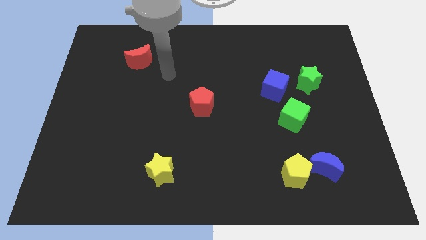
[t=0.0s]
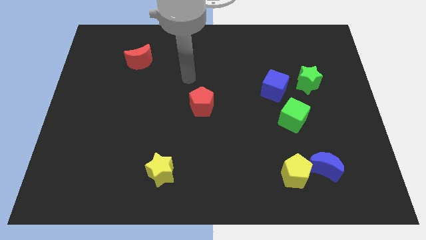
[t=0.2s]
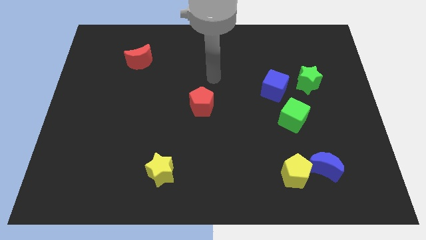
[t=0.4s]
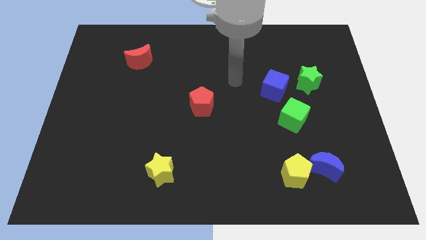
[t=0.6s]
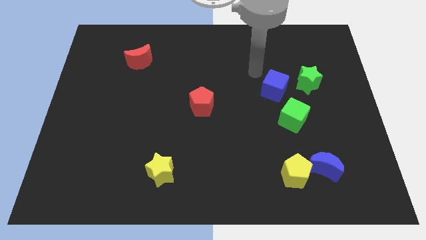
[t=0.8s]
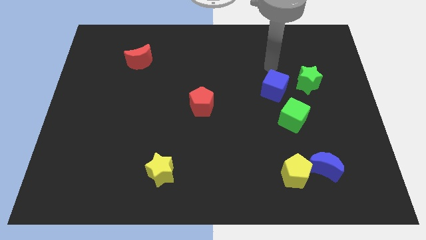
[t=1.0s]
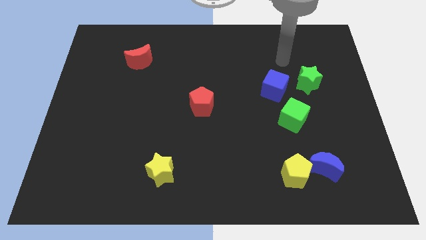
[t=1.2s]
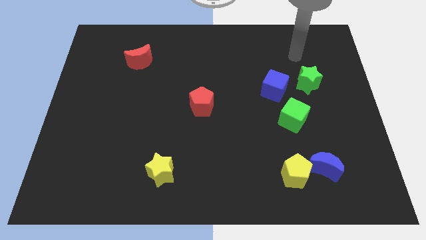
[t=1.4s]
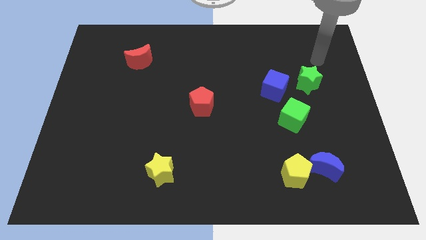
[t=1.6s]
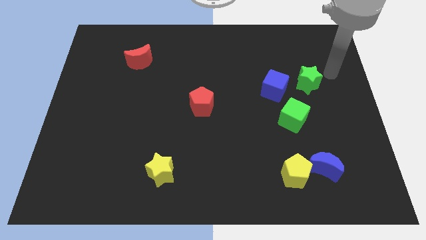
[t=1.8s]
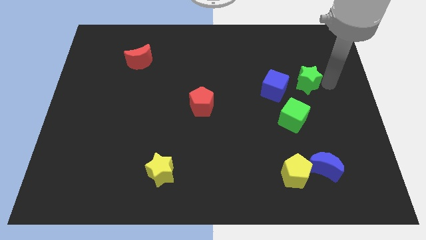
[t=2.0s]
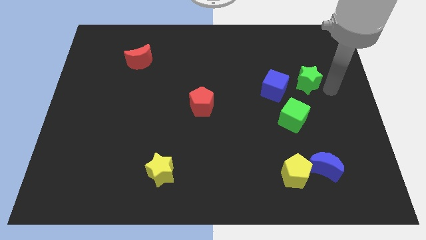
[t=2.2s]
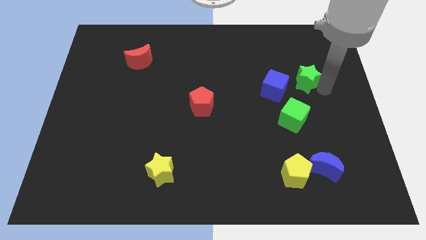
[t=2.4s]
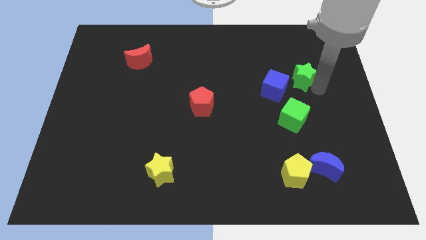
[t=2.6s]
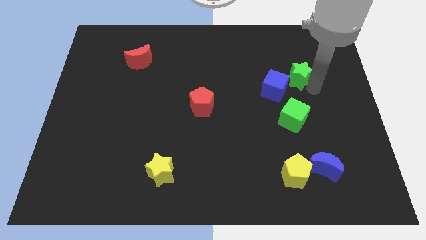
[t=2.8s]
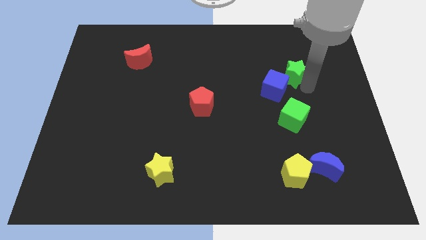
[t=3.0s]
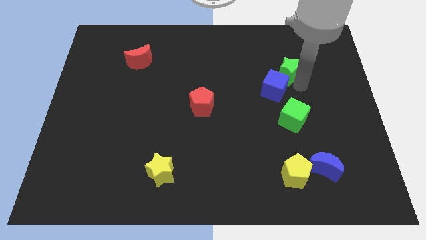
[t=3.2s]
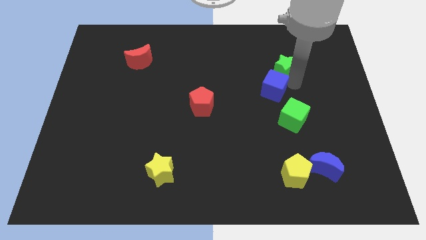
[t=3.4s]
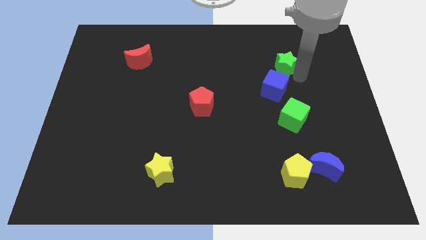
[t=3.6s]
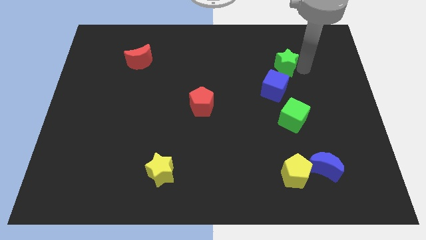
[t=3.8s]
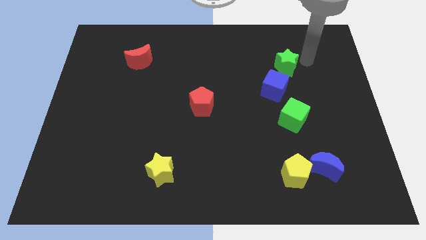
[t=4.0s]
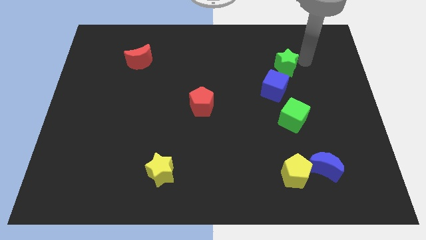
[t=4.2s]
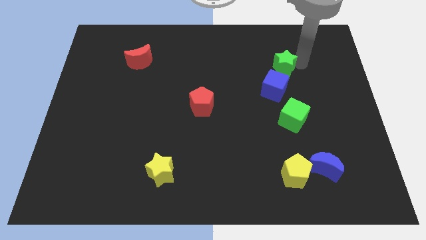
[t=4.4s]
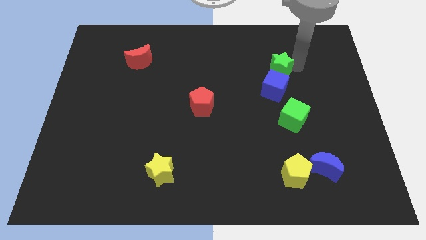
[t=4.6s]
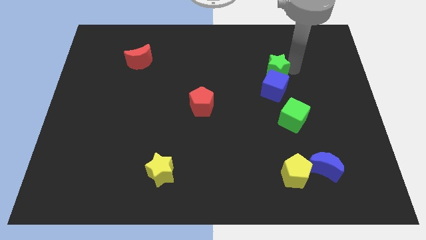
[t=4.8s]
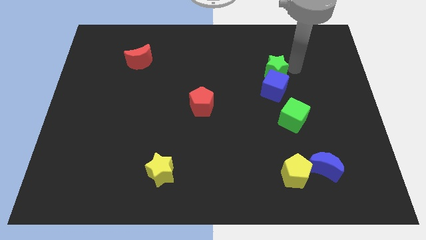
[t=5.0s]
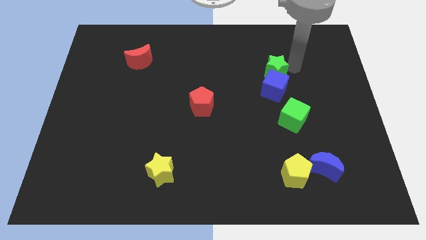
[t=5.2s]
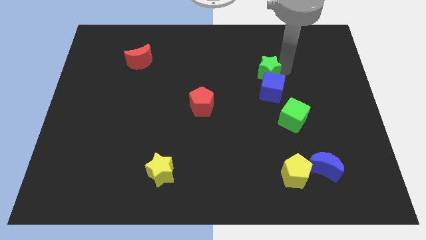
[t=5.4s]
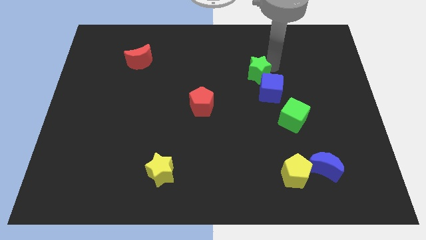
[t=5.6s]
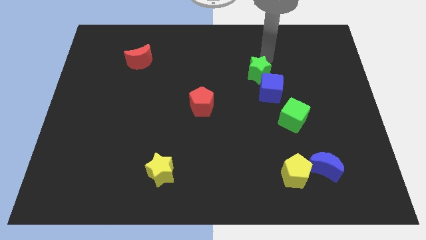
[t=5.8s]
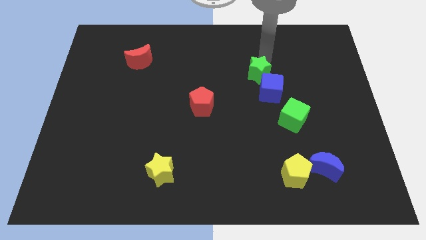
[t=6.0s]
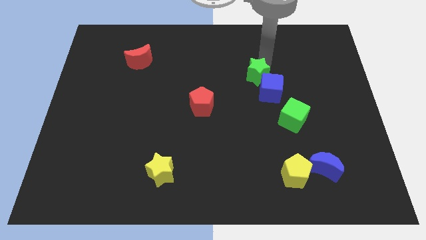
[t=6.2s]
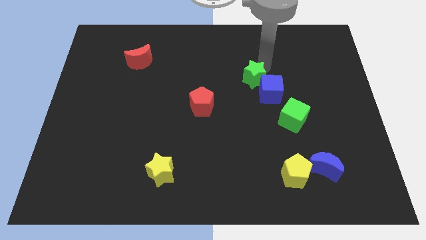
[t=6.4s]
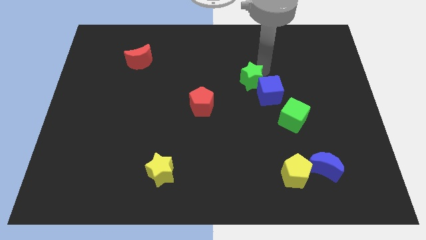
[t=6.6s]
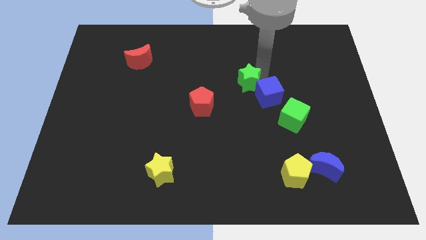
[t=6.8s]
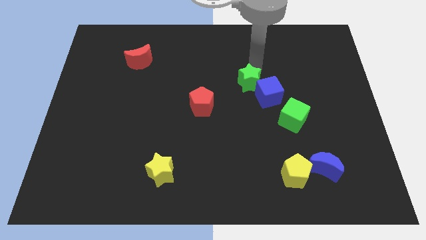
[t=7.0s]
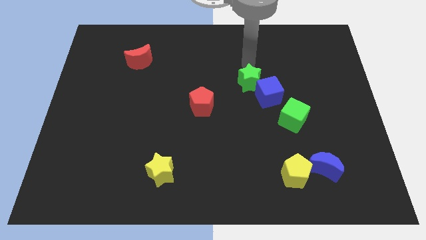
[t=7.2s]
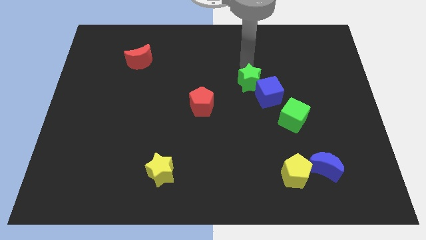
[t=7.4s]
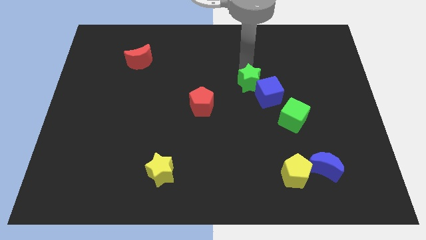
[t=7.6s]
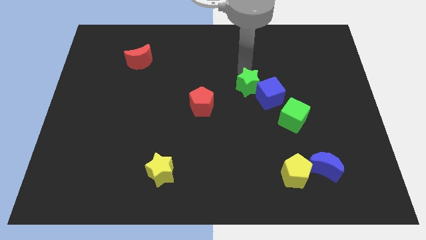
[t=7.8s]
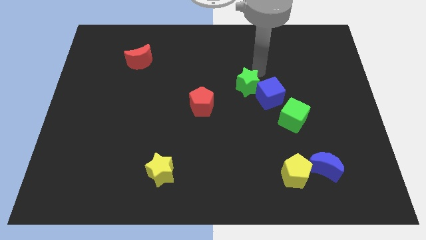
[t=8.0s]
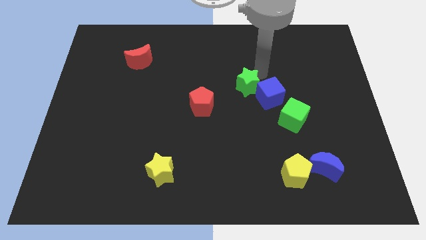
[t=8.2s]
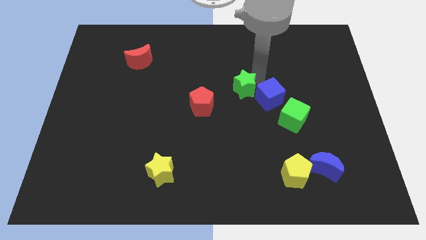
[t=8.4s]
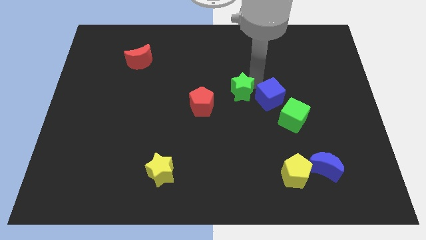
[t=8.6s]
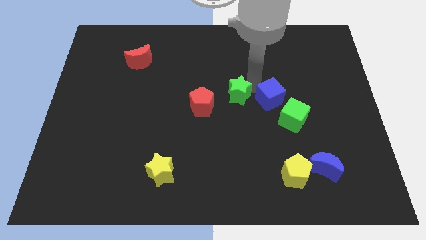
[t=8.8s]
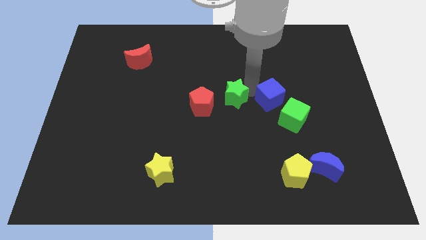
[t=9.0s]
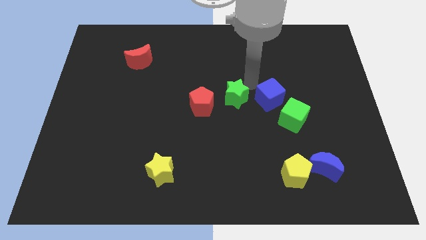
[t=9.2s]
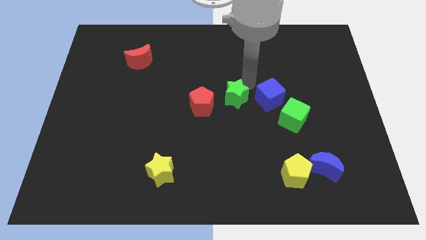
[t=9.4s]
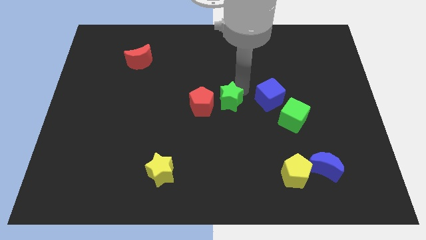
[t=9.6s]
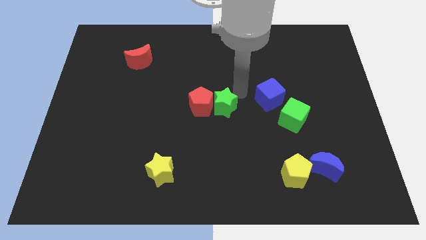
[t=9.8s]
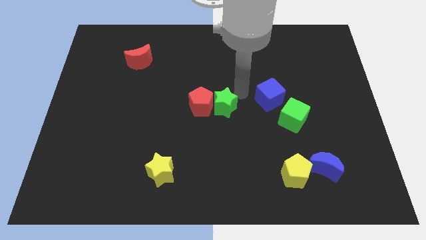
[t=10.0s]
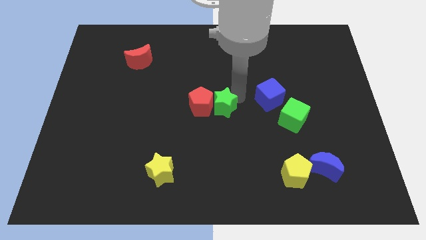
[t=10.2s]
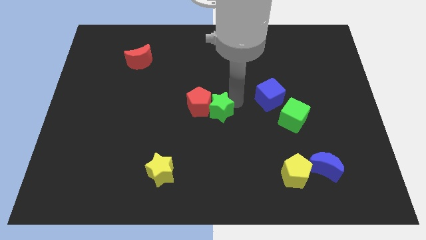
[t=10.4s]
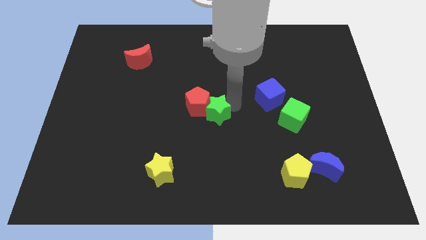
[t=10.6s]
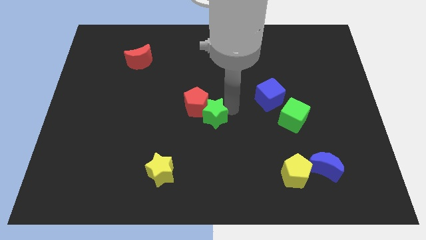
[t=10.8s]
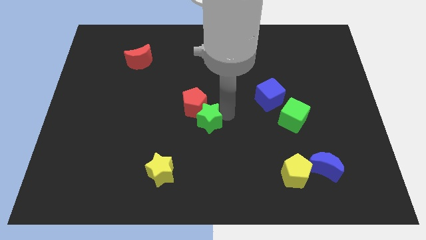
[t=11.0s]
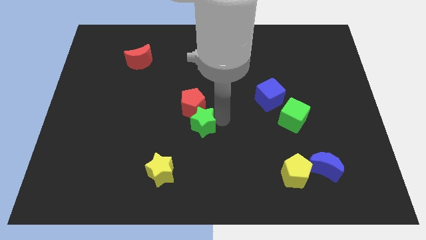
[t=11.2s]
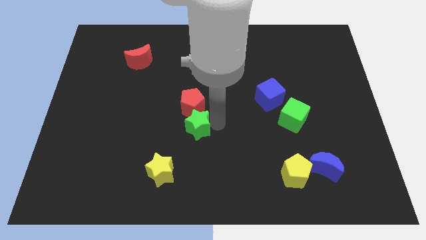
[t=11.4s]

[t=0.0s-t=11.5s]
push the green star to the bottom left of the red pentagon

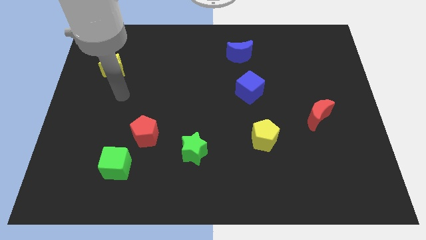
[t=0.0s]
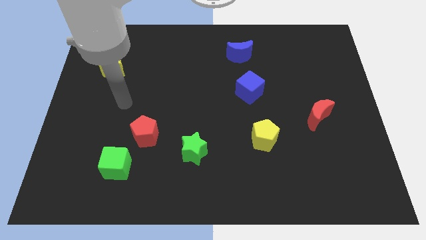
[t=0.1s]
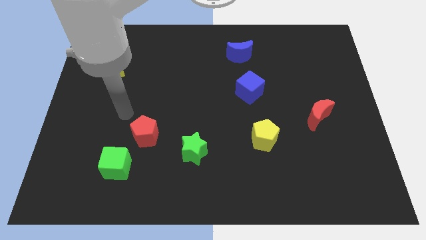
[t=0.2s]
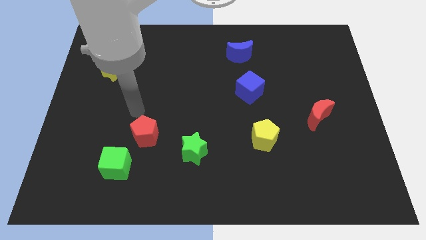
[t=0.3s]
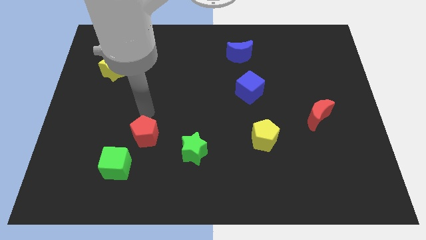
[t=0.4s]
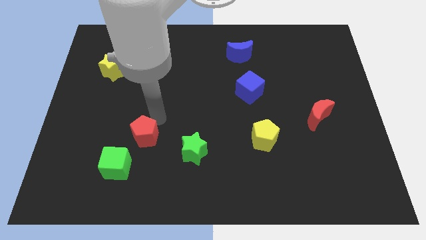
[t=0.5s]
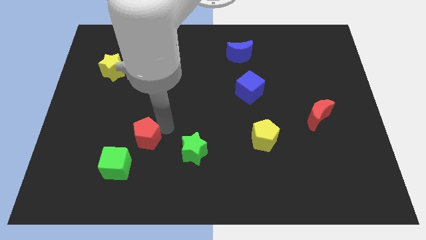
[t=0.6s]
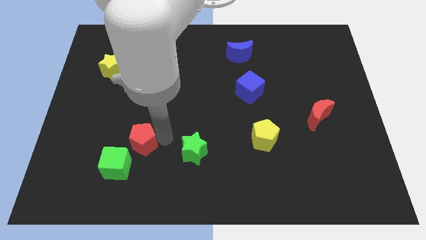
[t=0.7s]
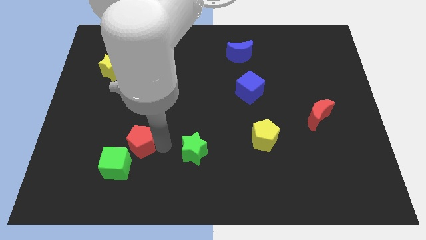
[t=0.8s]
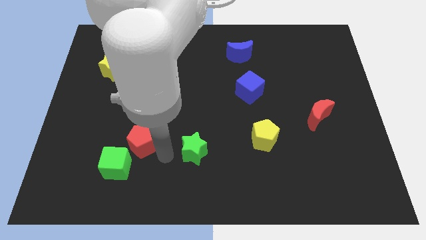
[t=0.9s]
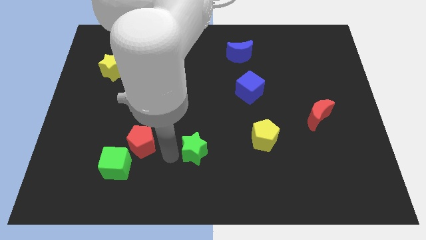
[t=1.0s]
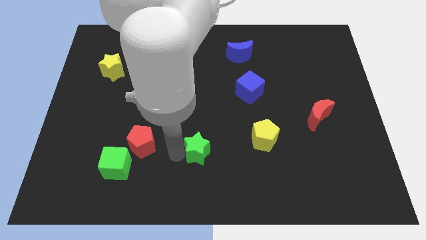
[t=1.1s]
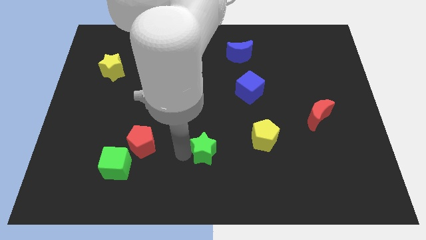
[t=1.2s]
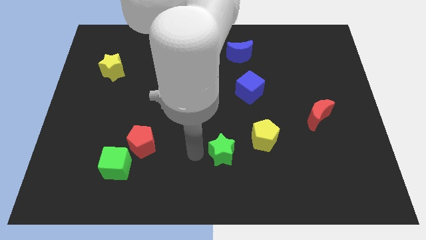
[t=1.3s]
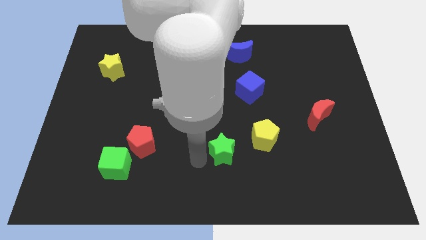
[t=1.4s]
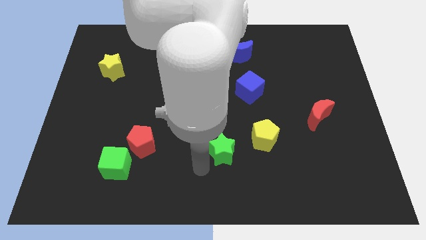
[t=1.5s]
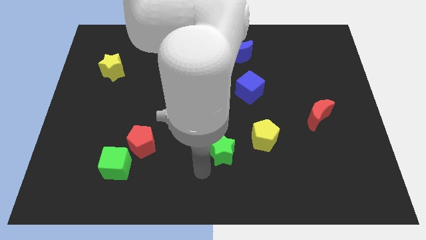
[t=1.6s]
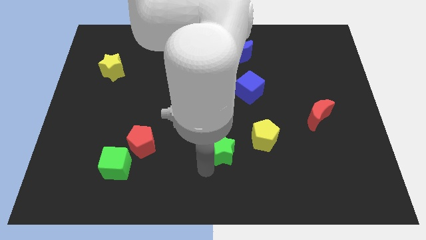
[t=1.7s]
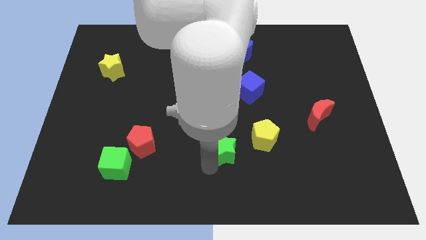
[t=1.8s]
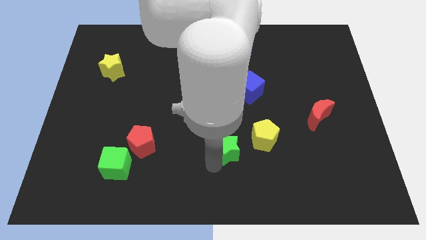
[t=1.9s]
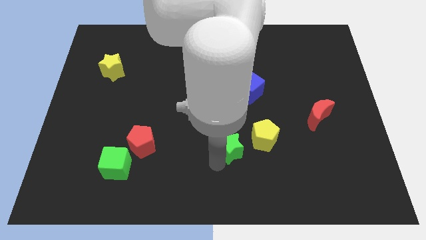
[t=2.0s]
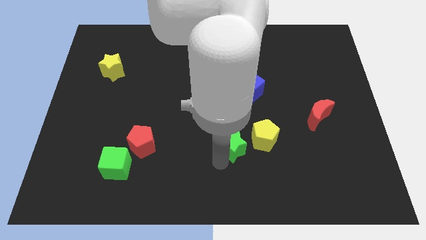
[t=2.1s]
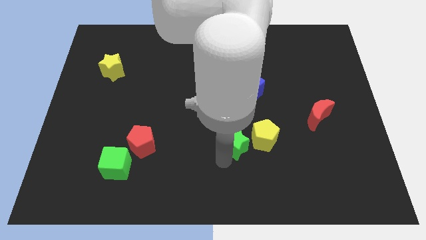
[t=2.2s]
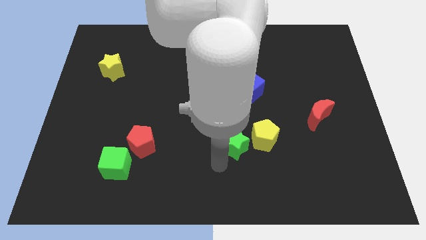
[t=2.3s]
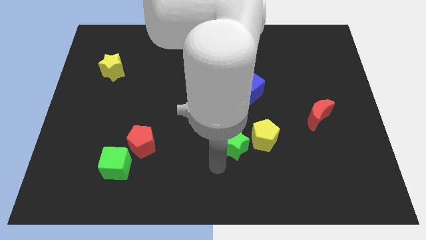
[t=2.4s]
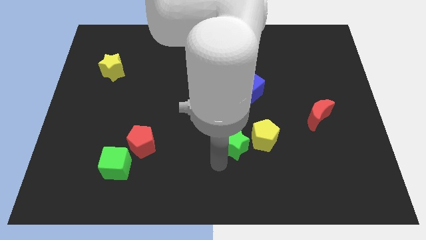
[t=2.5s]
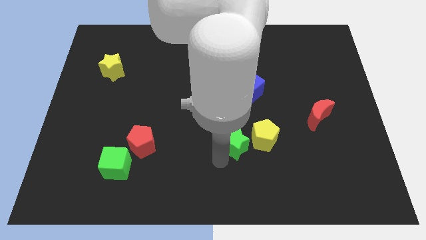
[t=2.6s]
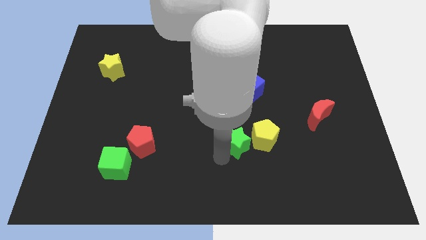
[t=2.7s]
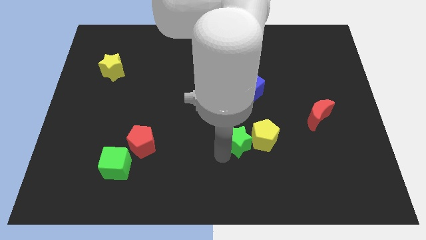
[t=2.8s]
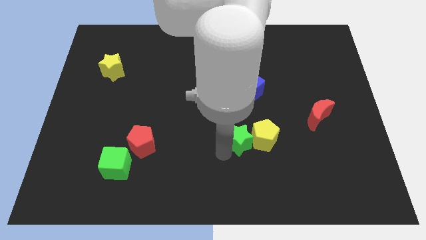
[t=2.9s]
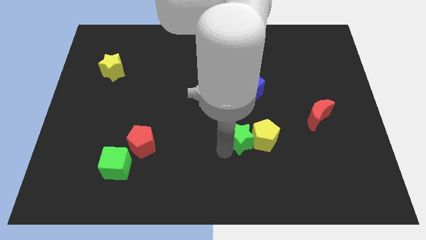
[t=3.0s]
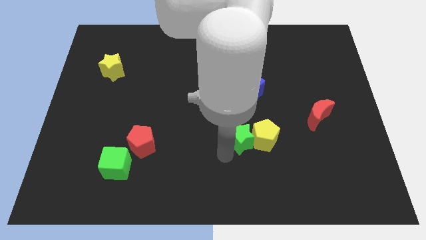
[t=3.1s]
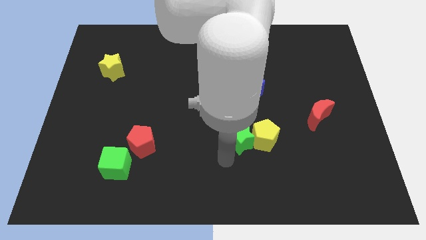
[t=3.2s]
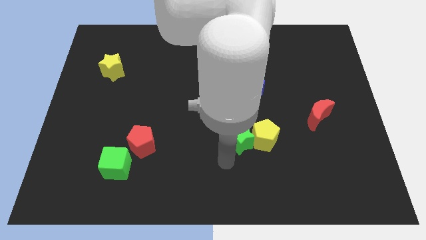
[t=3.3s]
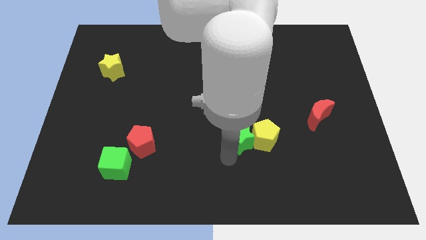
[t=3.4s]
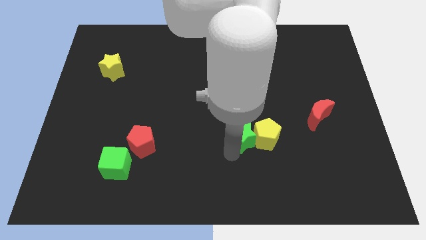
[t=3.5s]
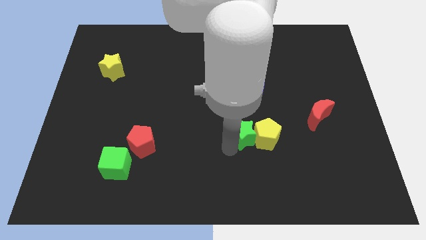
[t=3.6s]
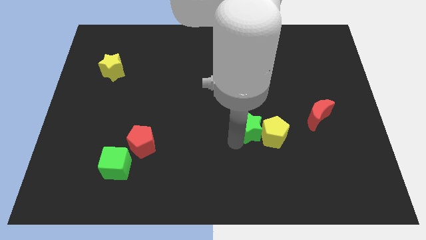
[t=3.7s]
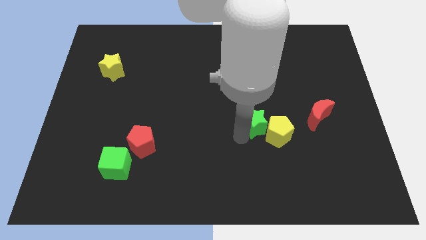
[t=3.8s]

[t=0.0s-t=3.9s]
move the green star left of the red moon
